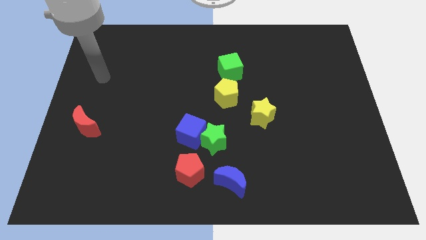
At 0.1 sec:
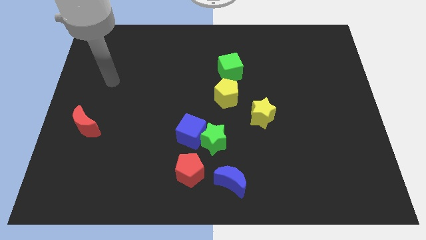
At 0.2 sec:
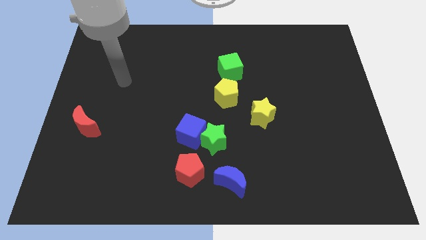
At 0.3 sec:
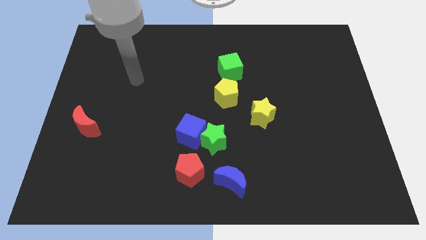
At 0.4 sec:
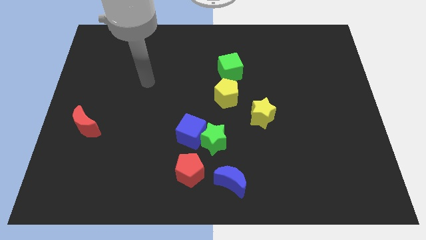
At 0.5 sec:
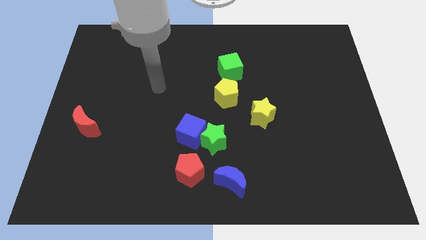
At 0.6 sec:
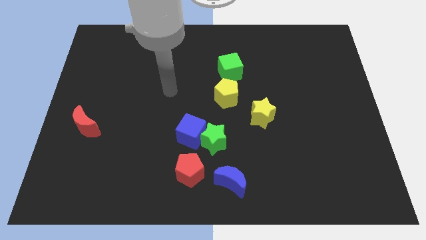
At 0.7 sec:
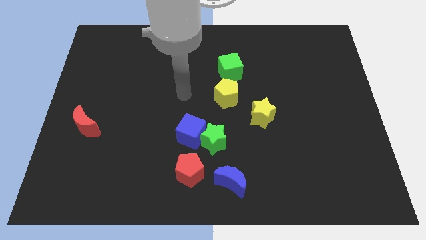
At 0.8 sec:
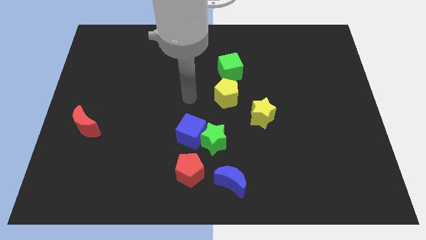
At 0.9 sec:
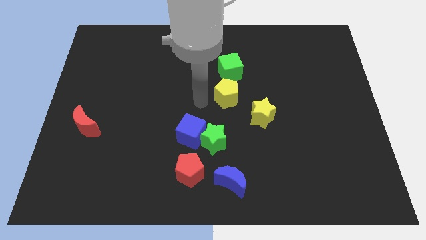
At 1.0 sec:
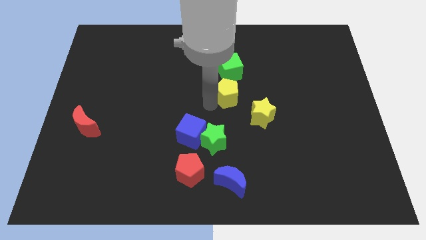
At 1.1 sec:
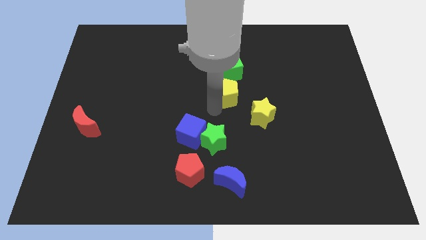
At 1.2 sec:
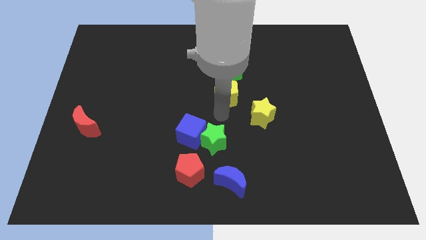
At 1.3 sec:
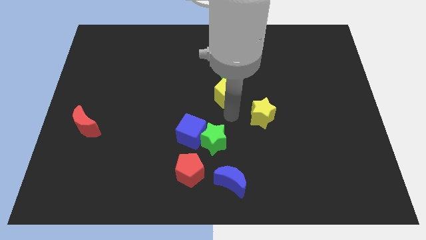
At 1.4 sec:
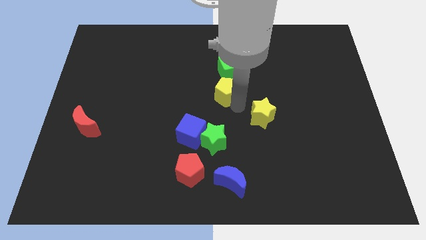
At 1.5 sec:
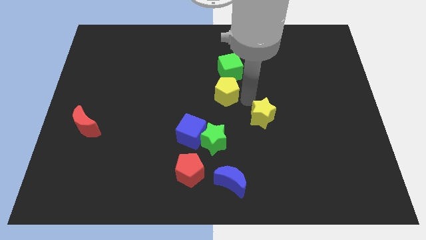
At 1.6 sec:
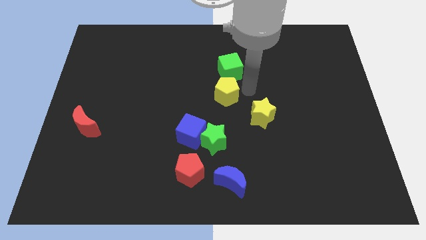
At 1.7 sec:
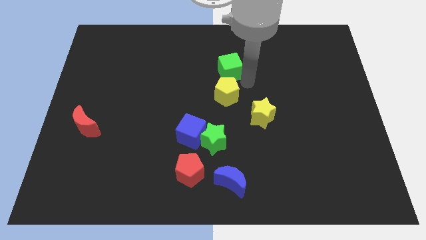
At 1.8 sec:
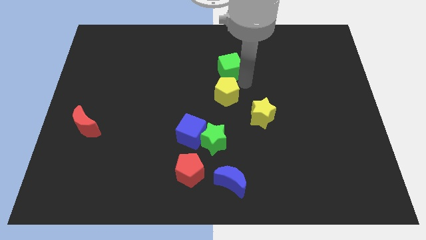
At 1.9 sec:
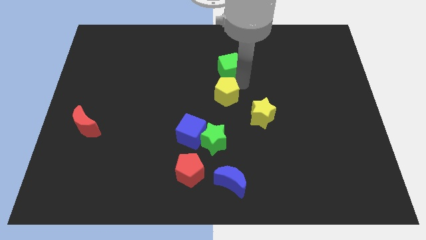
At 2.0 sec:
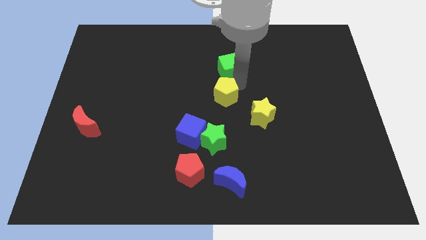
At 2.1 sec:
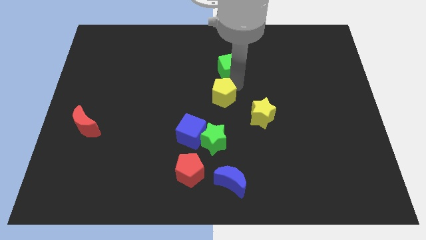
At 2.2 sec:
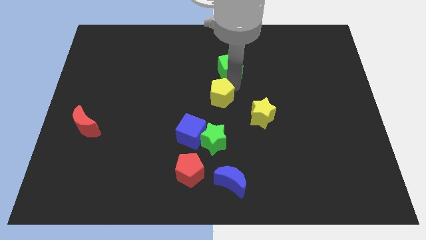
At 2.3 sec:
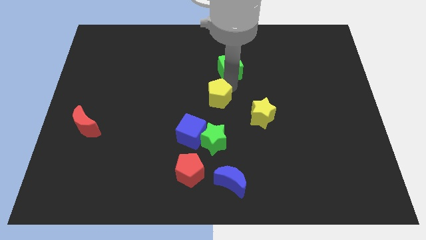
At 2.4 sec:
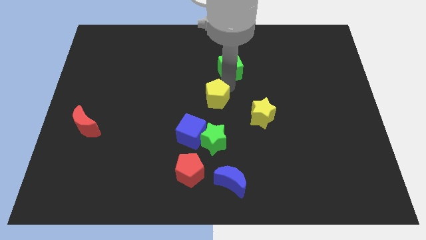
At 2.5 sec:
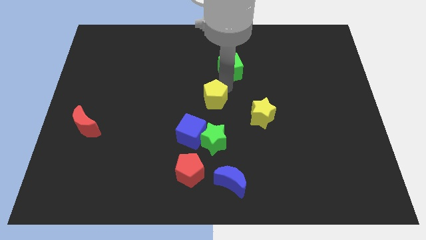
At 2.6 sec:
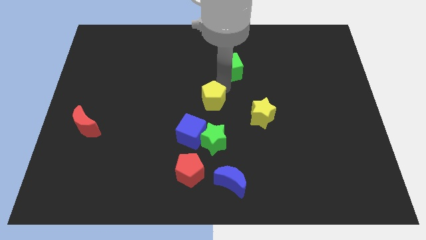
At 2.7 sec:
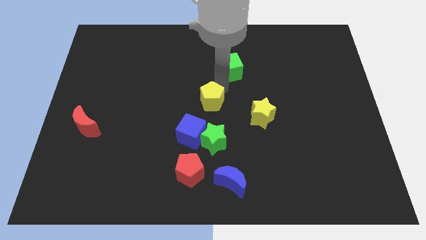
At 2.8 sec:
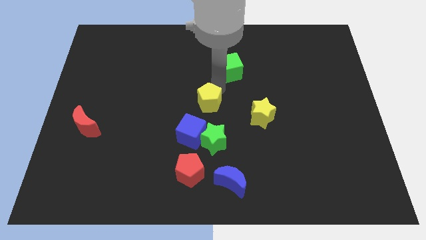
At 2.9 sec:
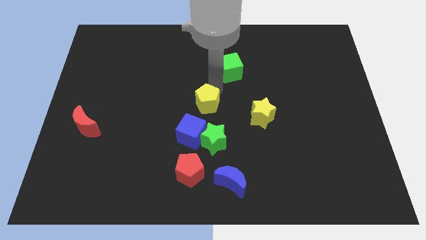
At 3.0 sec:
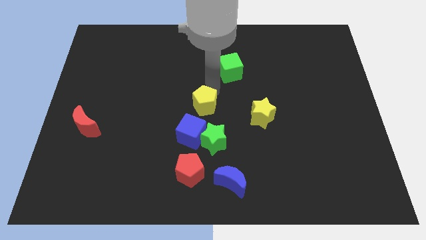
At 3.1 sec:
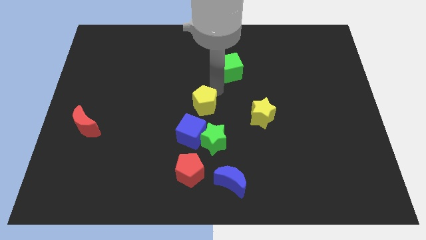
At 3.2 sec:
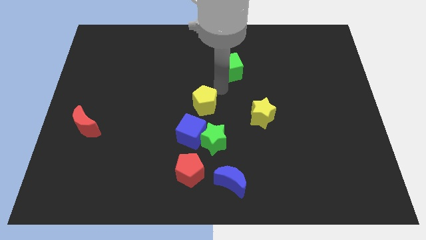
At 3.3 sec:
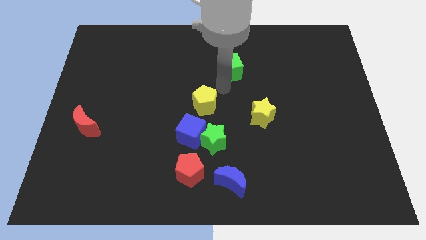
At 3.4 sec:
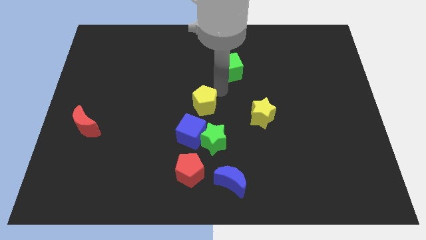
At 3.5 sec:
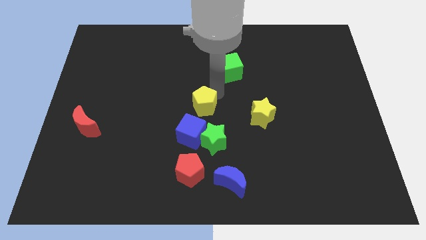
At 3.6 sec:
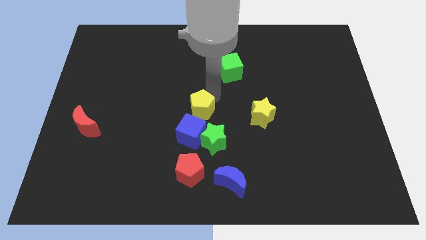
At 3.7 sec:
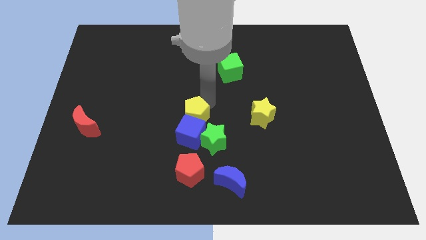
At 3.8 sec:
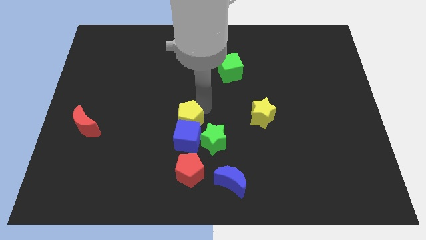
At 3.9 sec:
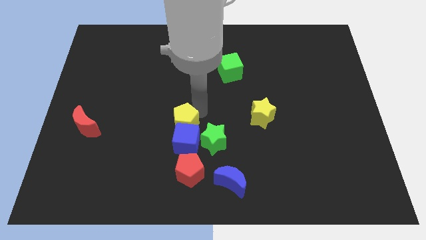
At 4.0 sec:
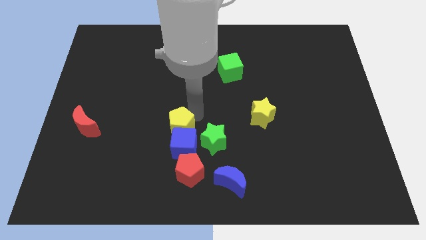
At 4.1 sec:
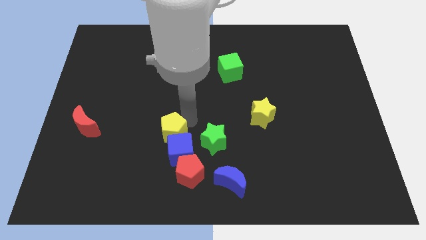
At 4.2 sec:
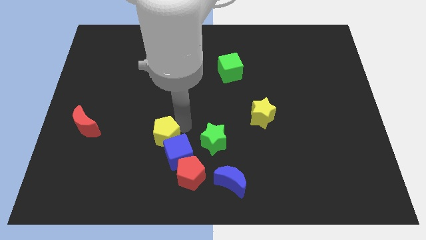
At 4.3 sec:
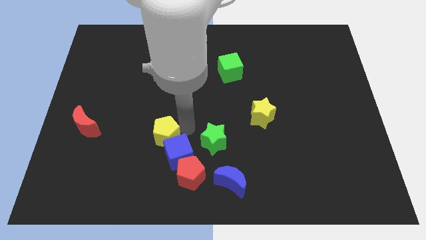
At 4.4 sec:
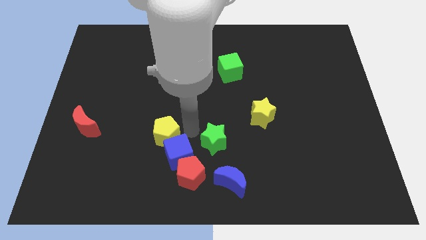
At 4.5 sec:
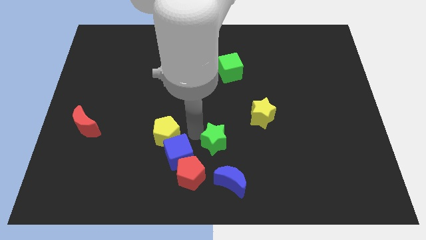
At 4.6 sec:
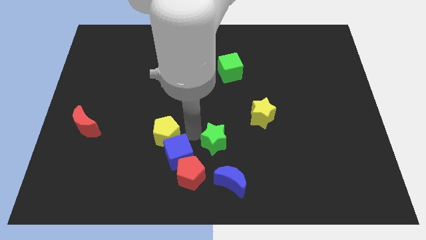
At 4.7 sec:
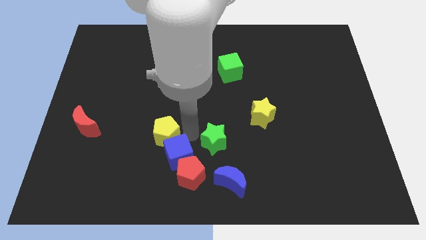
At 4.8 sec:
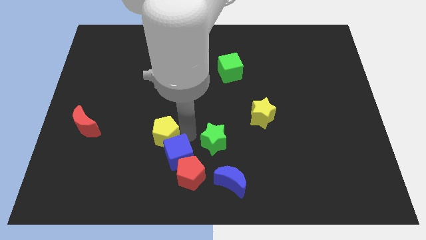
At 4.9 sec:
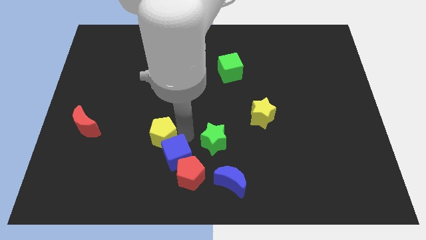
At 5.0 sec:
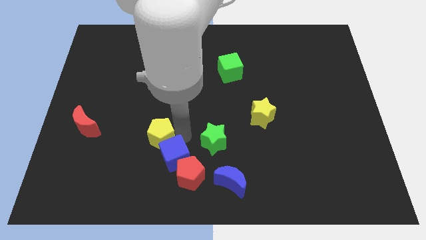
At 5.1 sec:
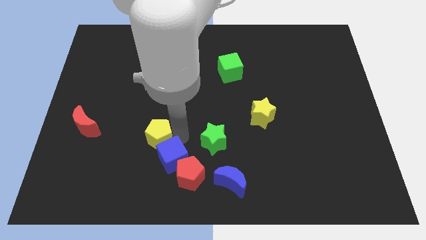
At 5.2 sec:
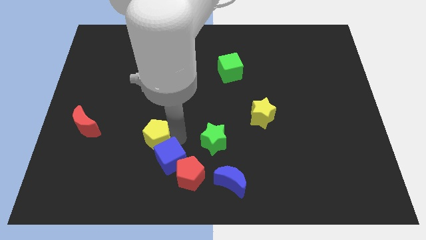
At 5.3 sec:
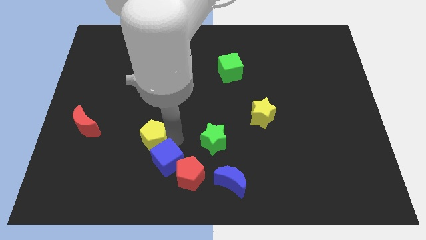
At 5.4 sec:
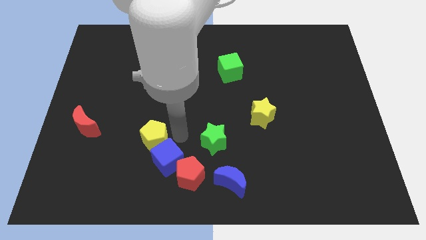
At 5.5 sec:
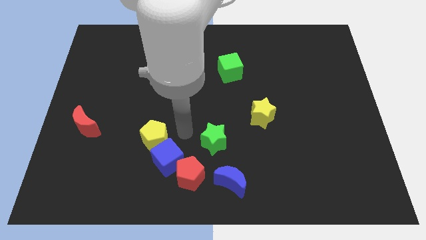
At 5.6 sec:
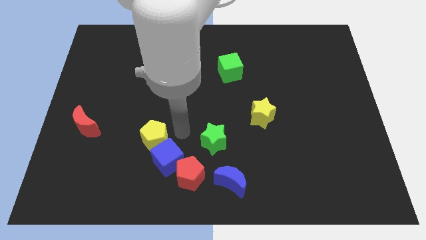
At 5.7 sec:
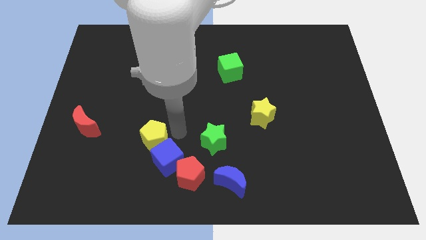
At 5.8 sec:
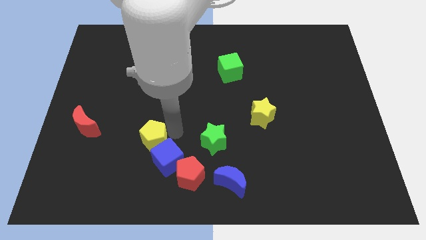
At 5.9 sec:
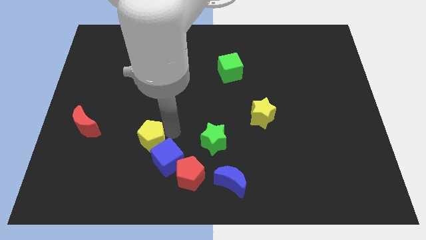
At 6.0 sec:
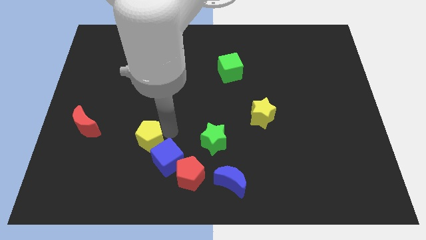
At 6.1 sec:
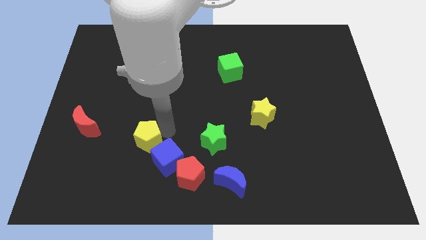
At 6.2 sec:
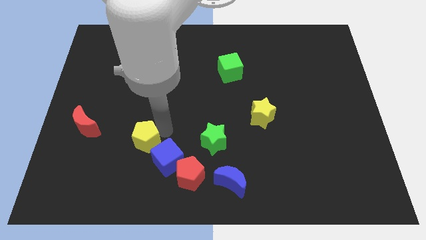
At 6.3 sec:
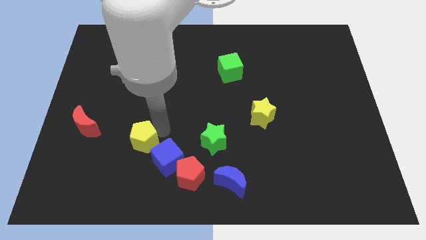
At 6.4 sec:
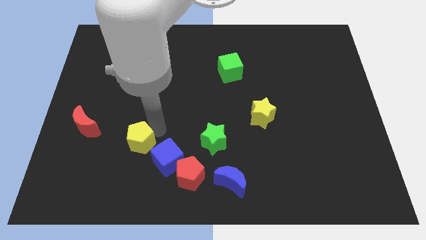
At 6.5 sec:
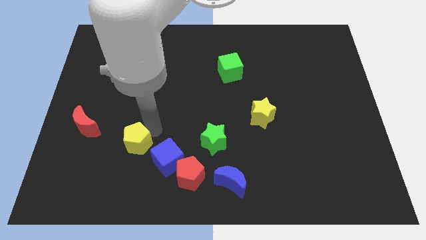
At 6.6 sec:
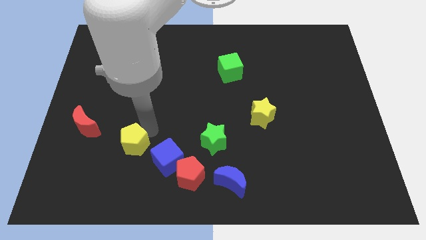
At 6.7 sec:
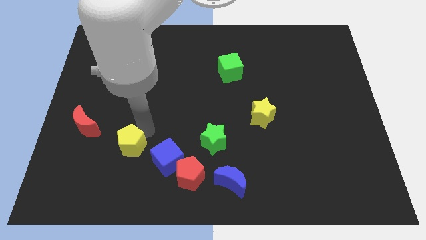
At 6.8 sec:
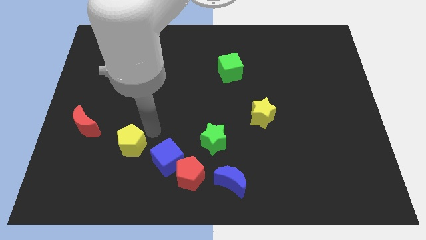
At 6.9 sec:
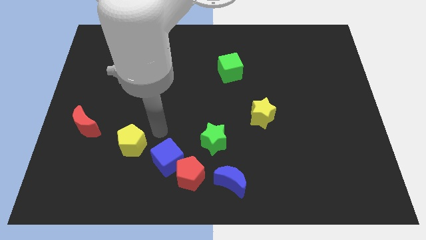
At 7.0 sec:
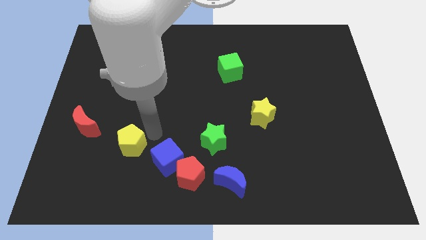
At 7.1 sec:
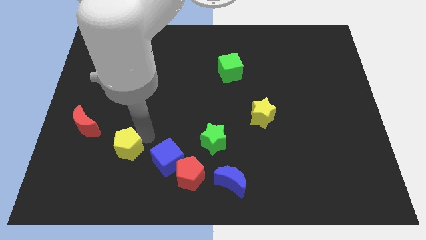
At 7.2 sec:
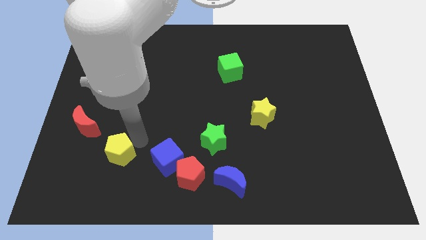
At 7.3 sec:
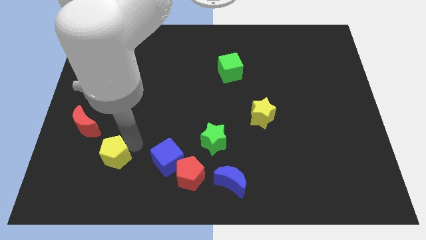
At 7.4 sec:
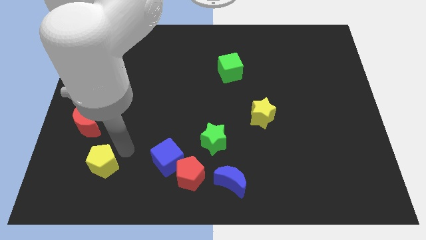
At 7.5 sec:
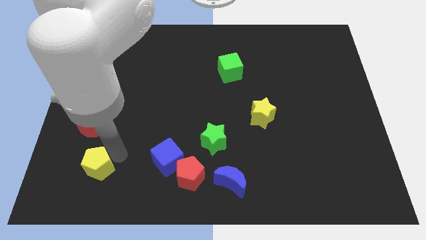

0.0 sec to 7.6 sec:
slide the yellow pentagon to the bottom of the red moon

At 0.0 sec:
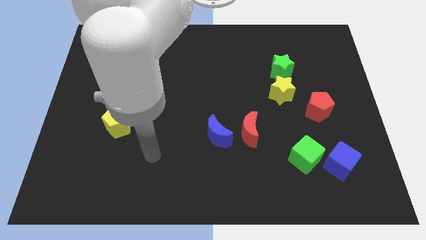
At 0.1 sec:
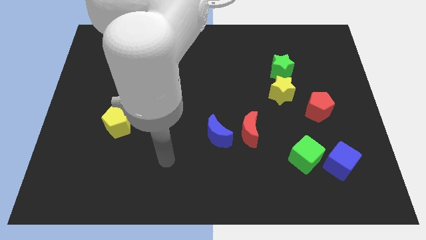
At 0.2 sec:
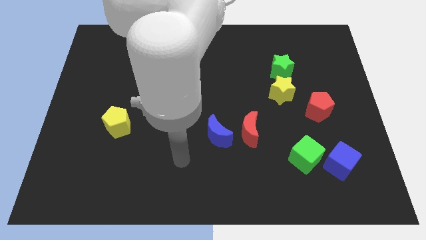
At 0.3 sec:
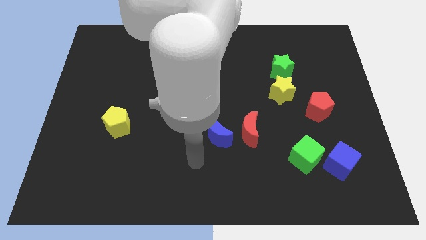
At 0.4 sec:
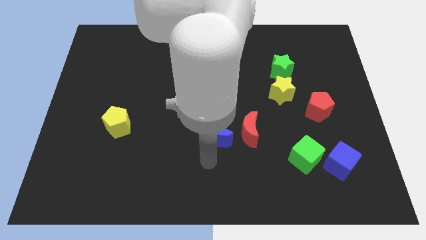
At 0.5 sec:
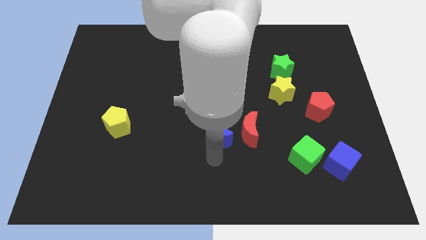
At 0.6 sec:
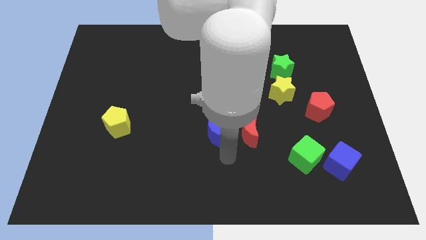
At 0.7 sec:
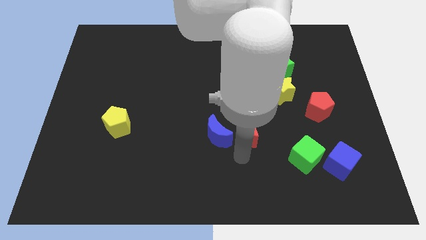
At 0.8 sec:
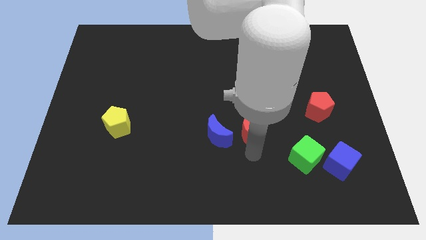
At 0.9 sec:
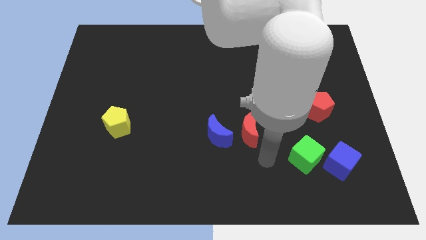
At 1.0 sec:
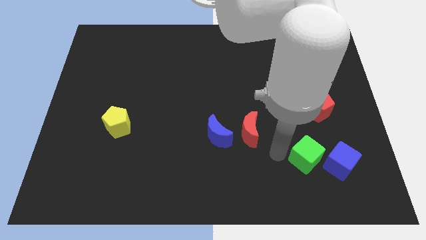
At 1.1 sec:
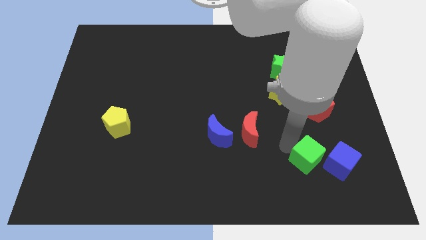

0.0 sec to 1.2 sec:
push the red pentagon to the top side of the green cube
